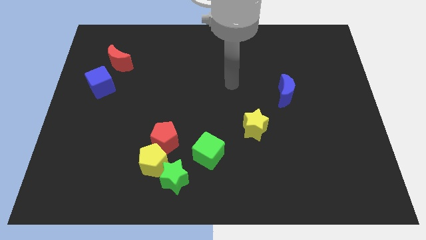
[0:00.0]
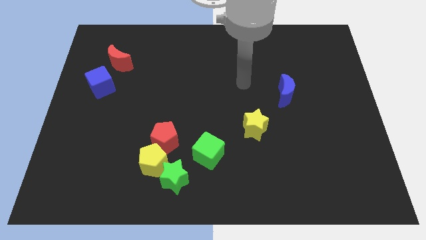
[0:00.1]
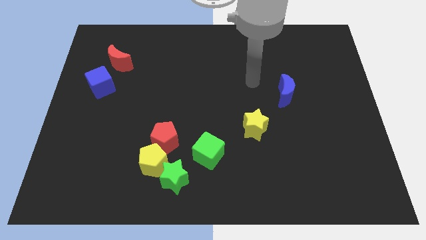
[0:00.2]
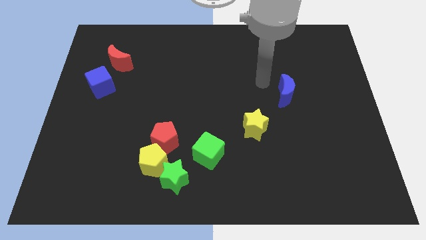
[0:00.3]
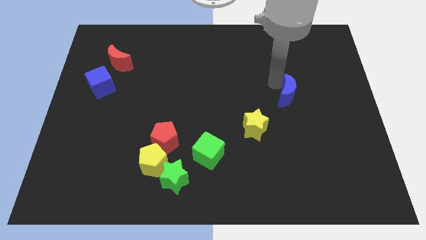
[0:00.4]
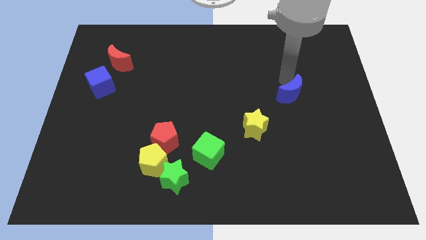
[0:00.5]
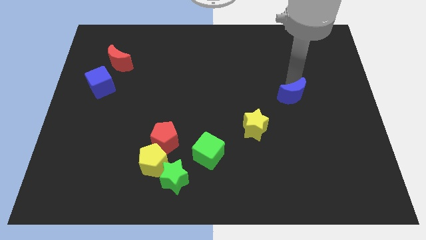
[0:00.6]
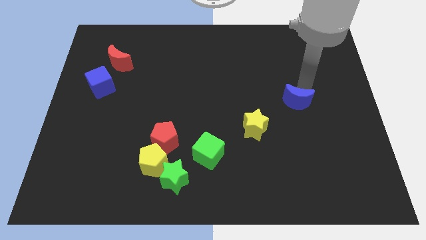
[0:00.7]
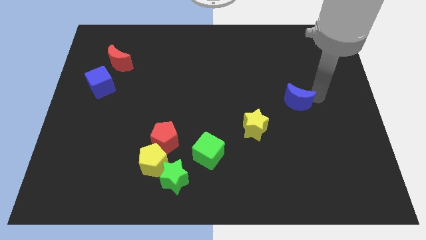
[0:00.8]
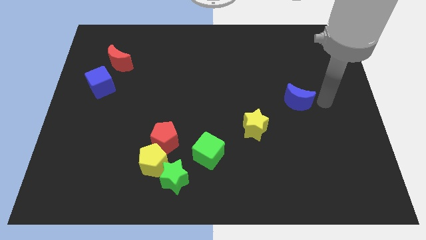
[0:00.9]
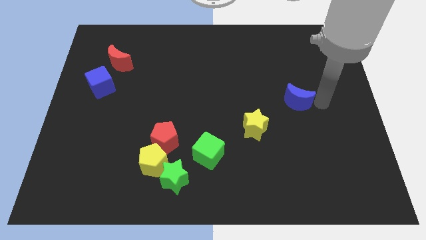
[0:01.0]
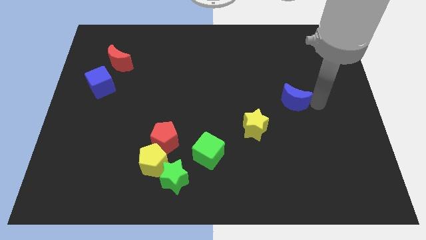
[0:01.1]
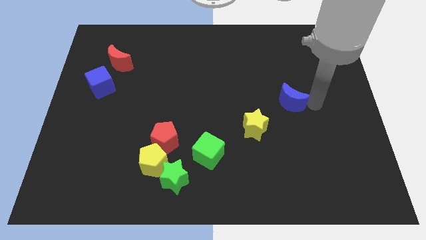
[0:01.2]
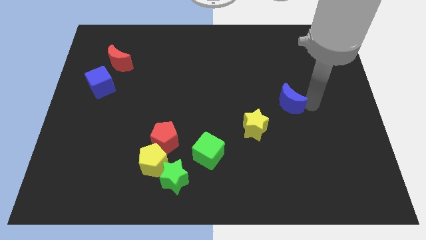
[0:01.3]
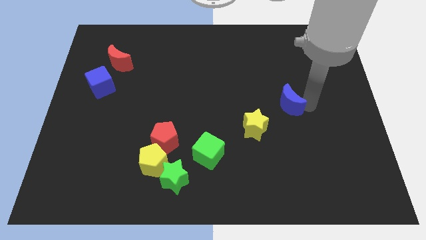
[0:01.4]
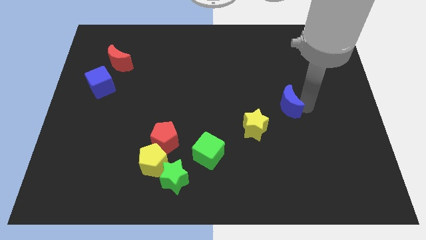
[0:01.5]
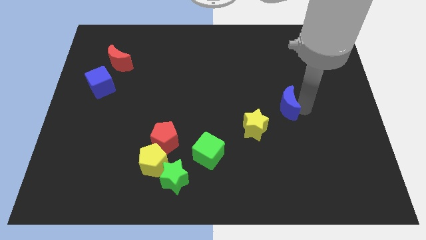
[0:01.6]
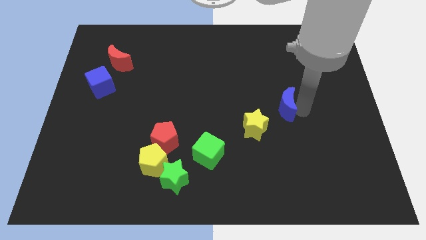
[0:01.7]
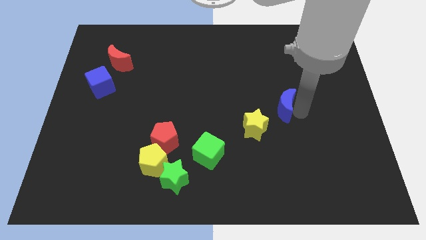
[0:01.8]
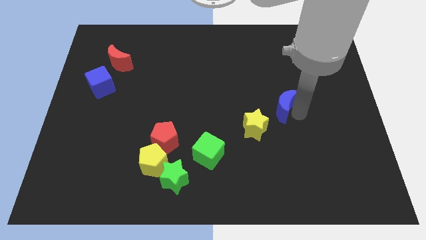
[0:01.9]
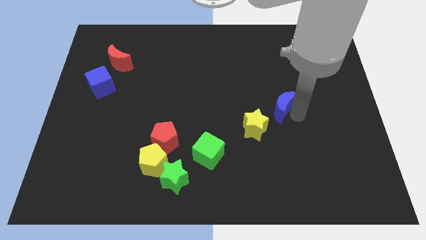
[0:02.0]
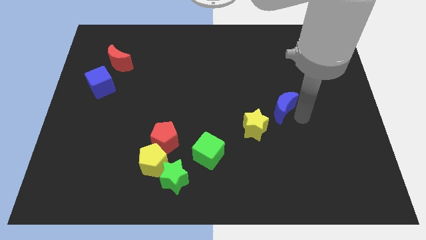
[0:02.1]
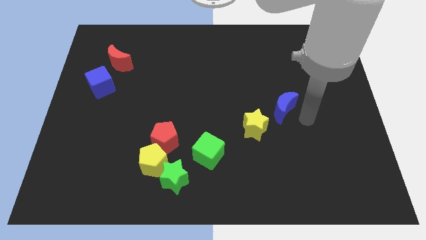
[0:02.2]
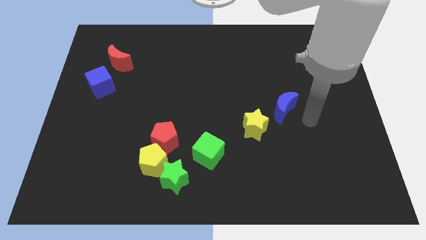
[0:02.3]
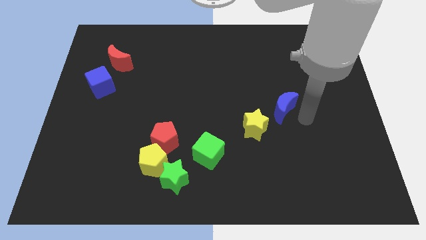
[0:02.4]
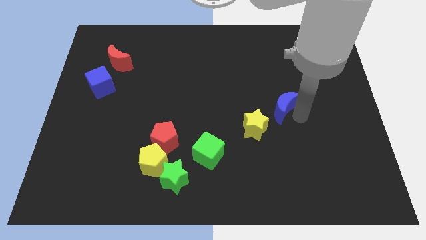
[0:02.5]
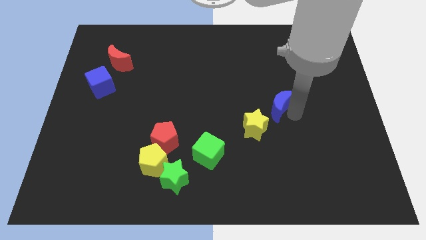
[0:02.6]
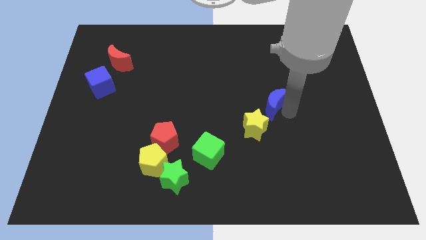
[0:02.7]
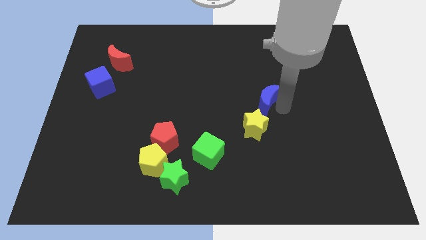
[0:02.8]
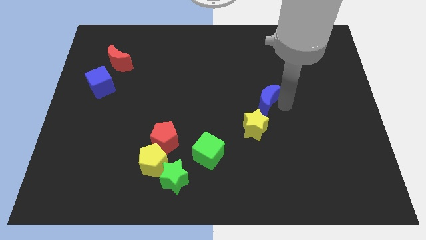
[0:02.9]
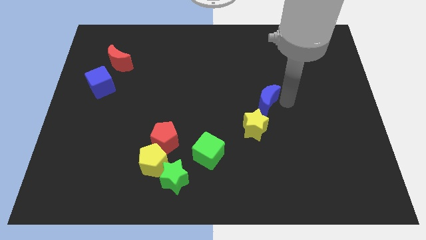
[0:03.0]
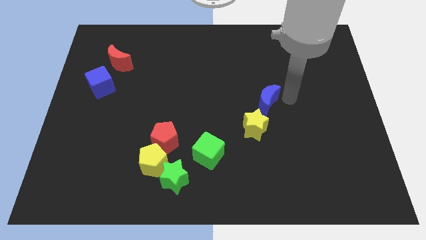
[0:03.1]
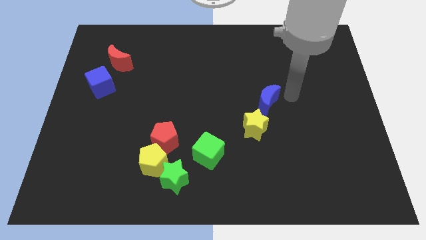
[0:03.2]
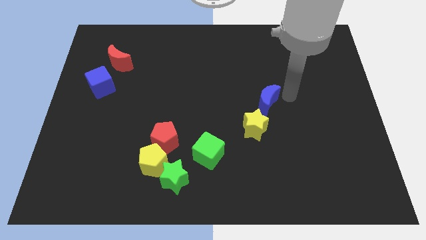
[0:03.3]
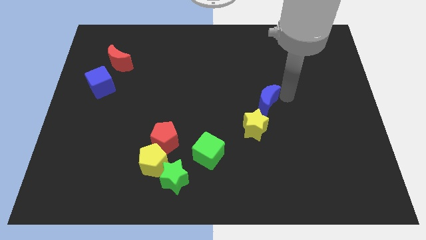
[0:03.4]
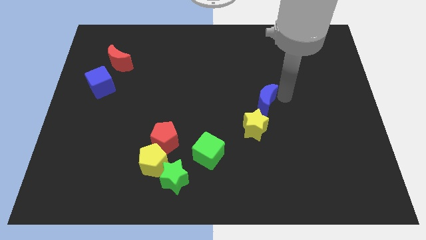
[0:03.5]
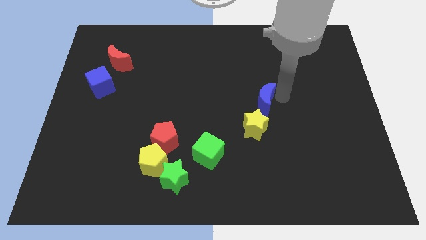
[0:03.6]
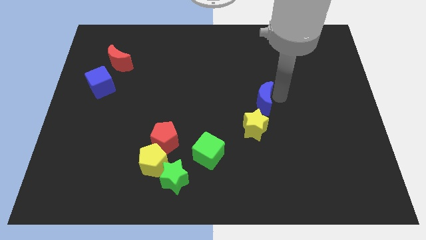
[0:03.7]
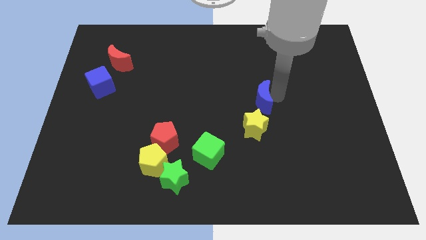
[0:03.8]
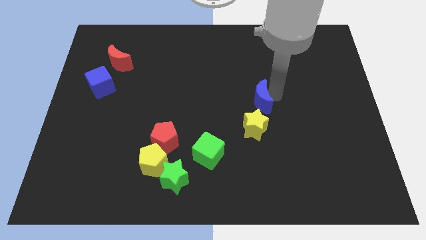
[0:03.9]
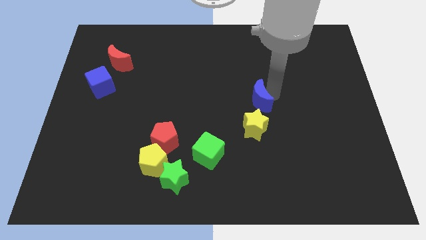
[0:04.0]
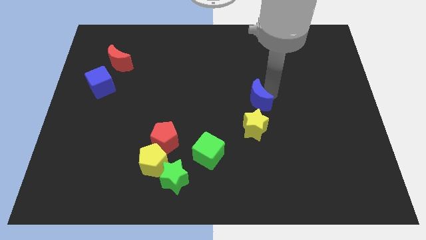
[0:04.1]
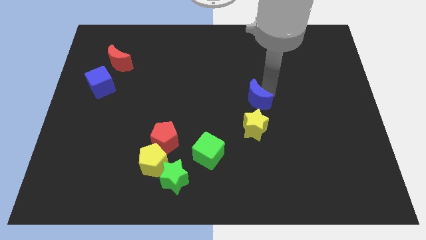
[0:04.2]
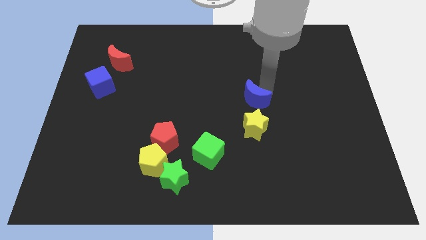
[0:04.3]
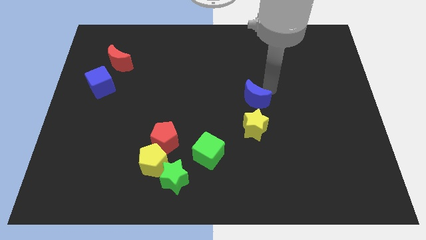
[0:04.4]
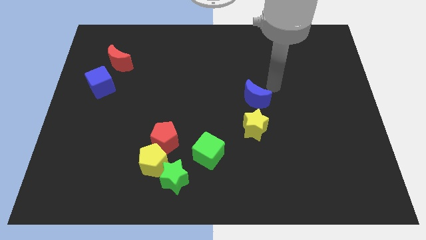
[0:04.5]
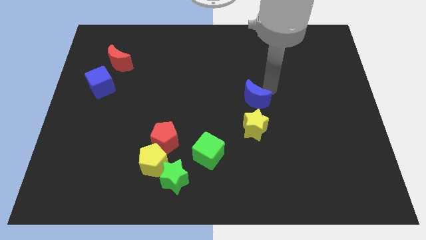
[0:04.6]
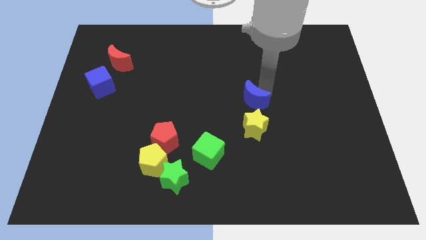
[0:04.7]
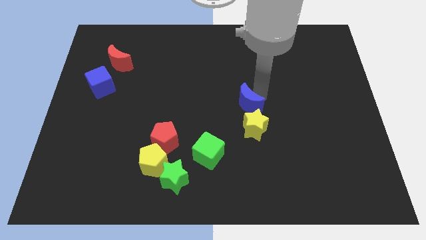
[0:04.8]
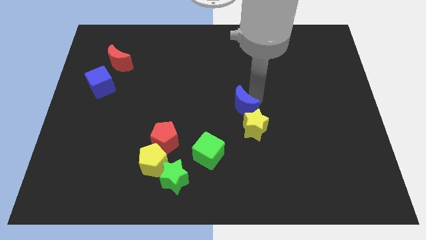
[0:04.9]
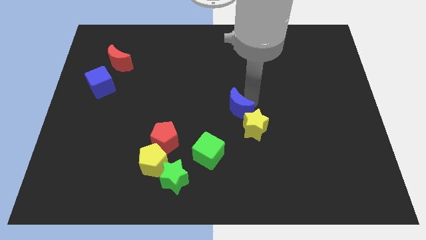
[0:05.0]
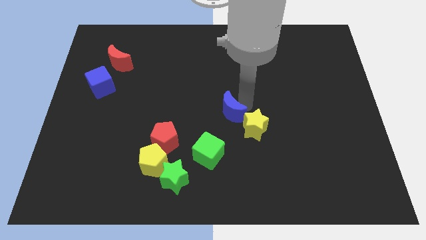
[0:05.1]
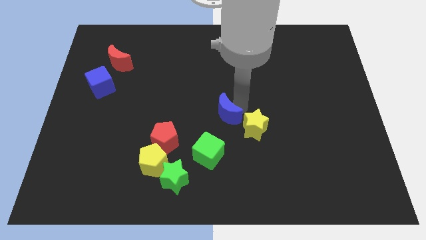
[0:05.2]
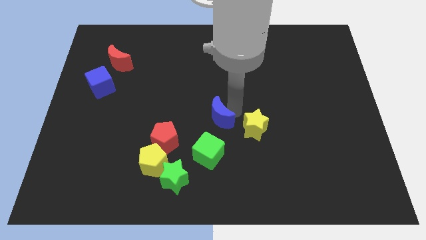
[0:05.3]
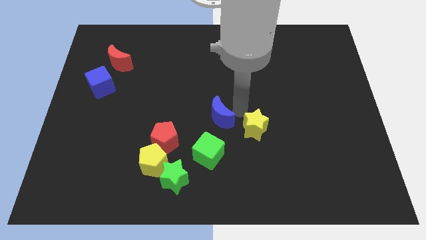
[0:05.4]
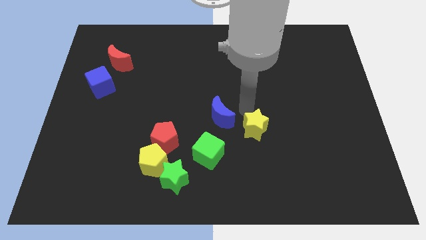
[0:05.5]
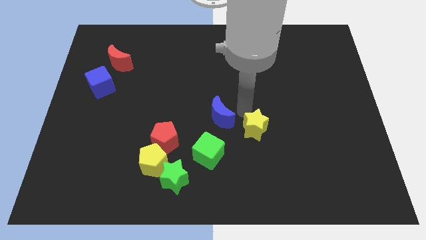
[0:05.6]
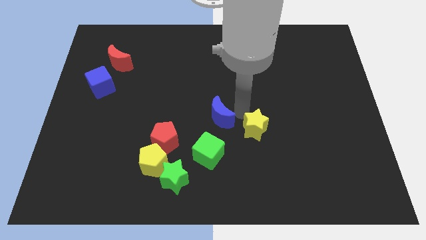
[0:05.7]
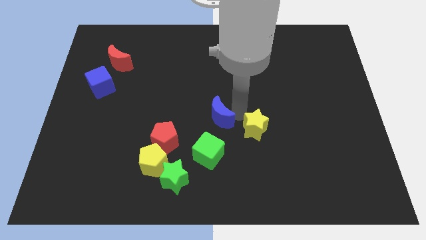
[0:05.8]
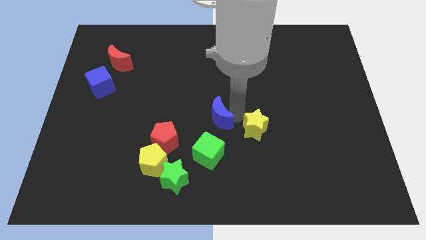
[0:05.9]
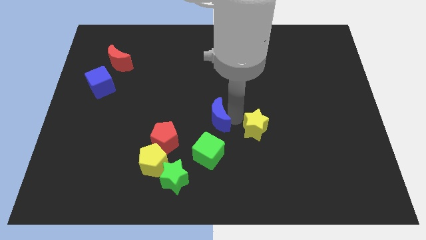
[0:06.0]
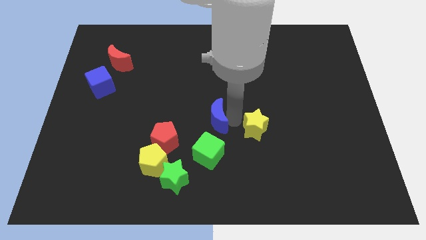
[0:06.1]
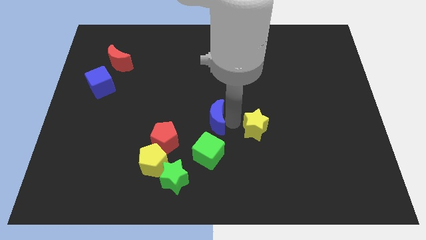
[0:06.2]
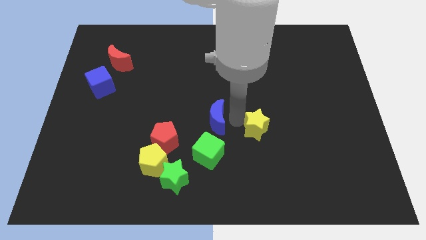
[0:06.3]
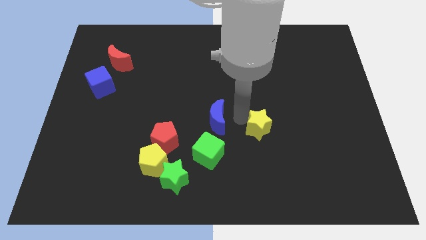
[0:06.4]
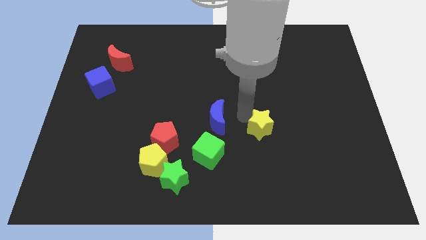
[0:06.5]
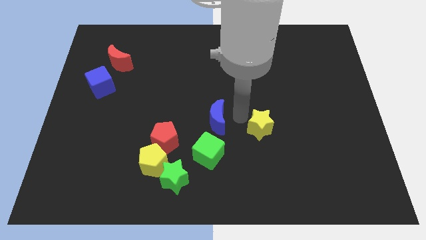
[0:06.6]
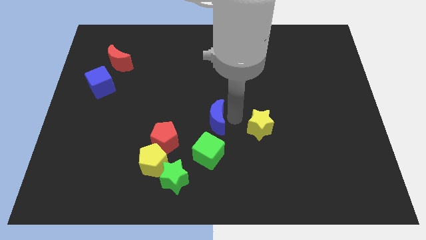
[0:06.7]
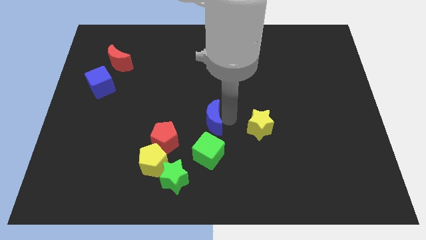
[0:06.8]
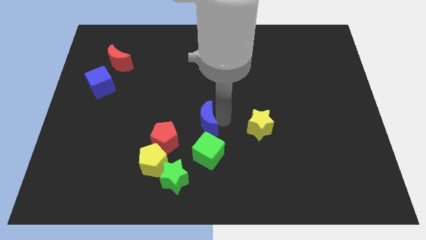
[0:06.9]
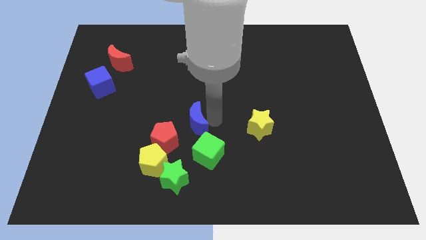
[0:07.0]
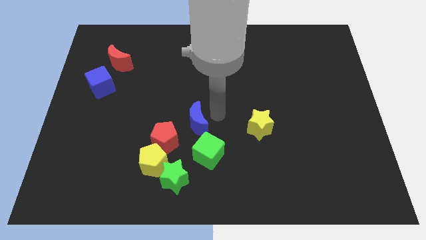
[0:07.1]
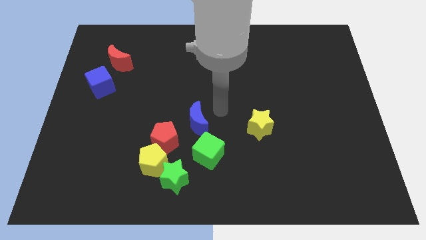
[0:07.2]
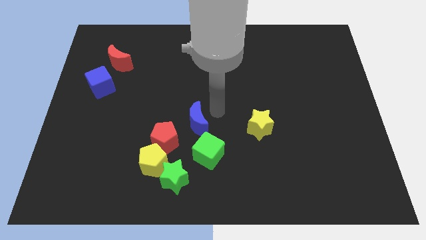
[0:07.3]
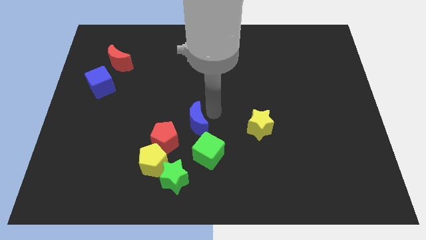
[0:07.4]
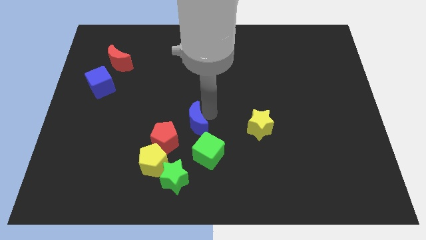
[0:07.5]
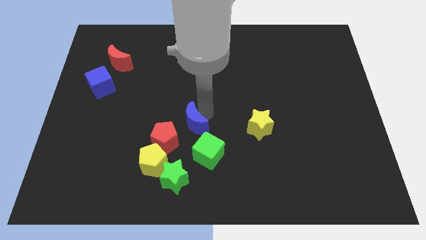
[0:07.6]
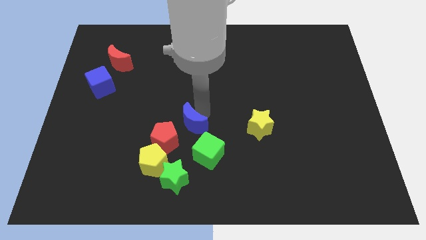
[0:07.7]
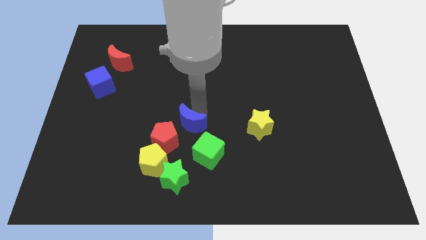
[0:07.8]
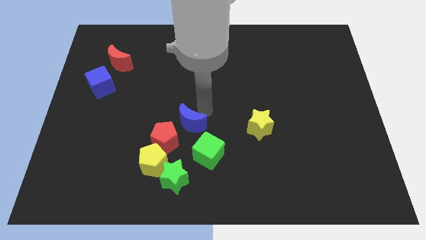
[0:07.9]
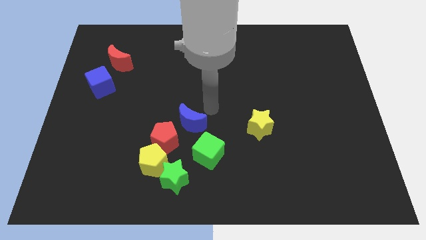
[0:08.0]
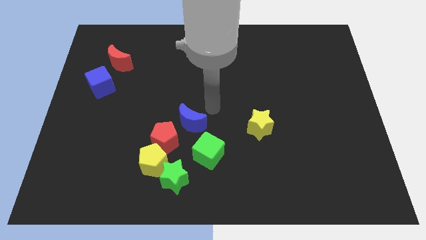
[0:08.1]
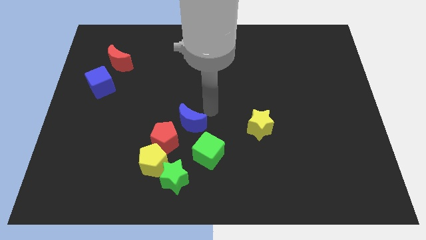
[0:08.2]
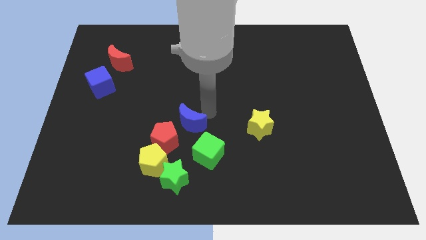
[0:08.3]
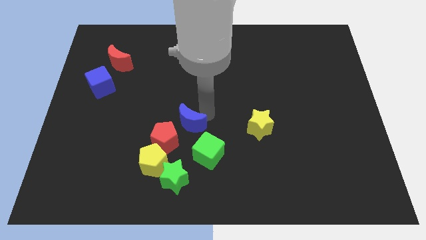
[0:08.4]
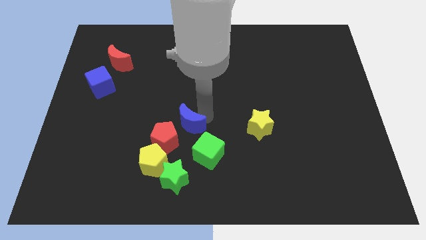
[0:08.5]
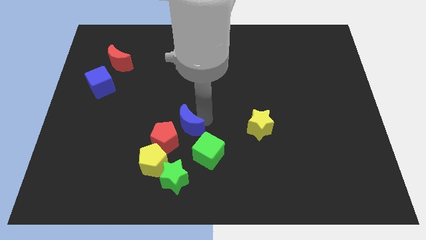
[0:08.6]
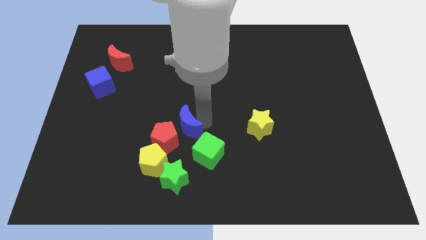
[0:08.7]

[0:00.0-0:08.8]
push the blue moon close to the red pentagon
